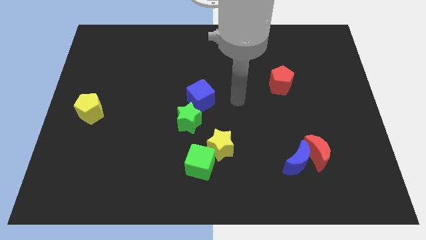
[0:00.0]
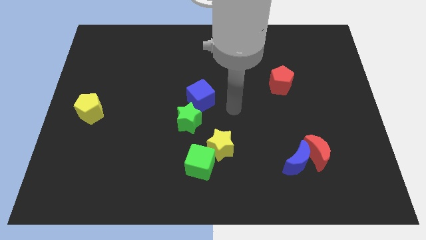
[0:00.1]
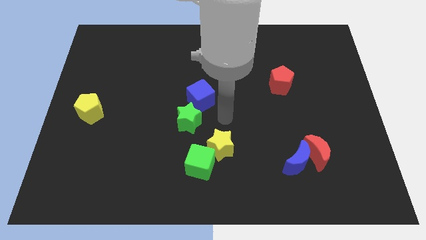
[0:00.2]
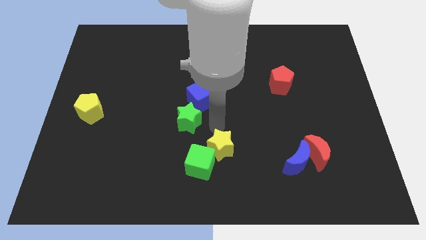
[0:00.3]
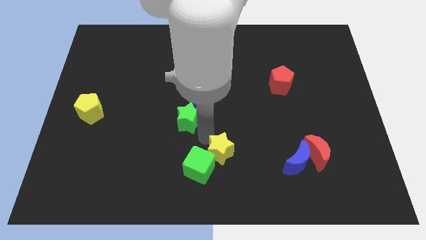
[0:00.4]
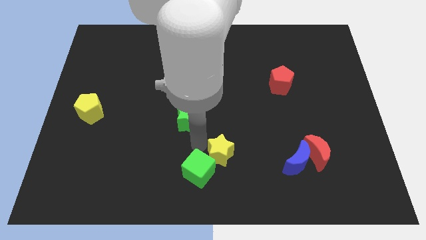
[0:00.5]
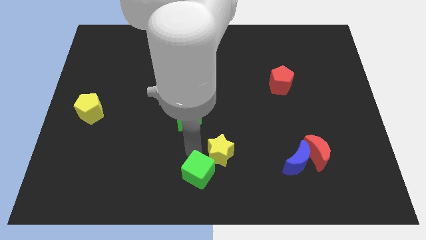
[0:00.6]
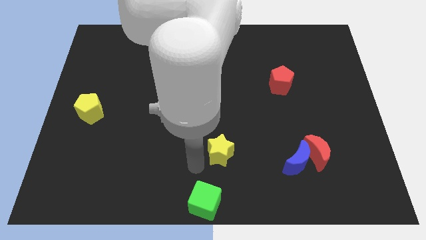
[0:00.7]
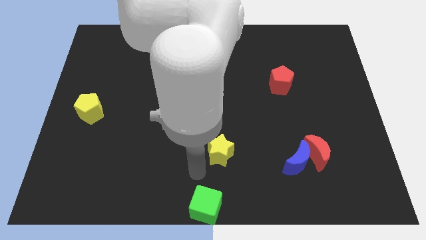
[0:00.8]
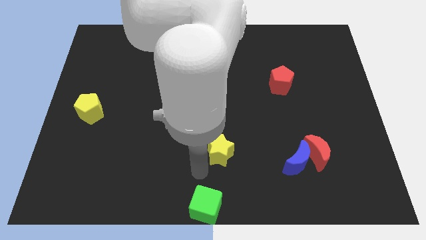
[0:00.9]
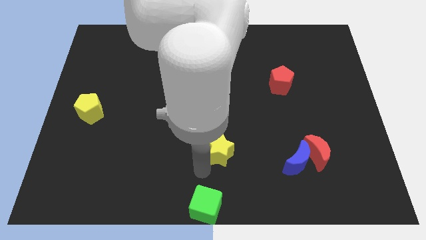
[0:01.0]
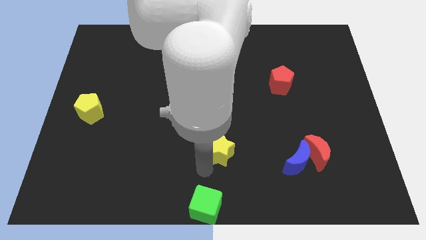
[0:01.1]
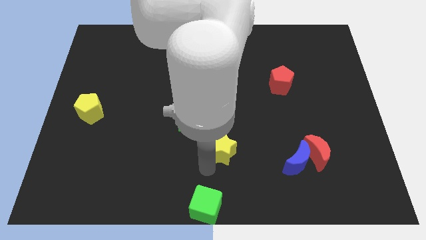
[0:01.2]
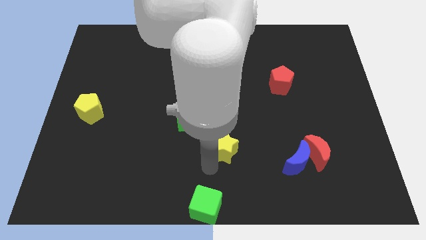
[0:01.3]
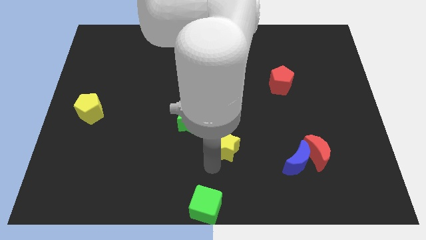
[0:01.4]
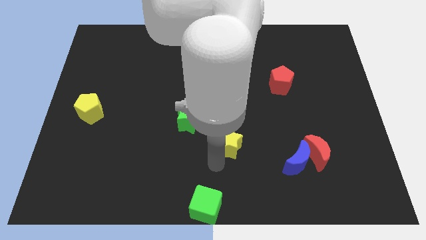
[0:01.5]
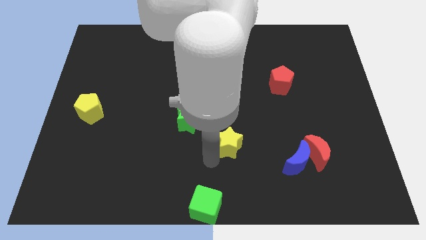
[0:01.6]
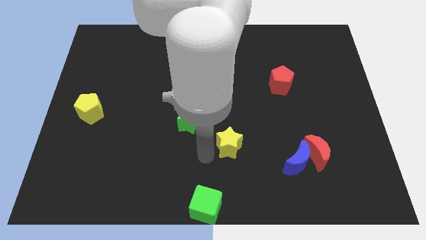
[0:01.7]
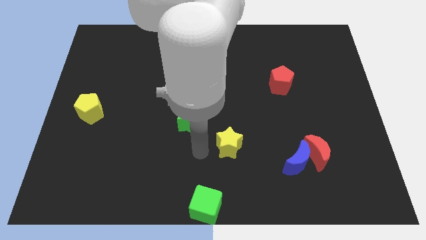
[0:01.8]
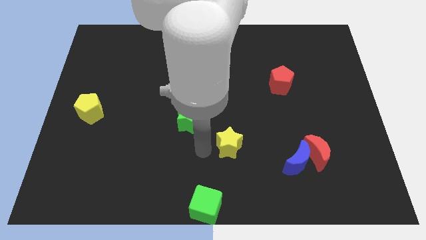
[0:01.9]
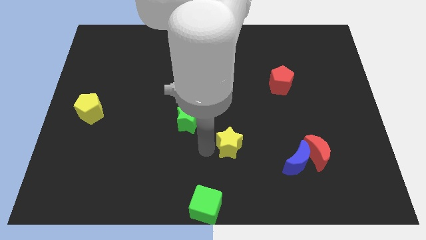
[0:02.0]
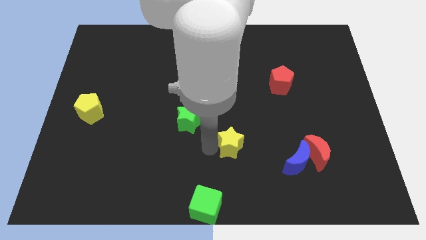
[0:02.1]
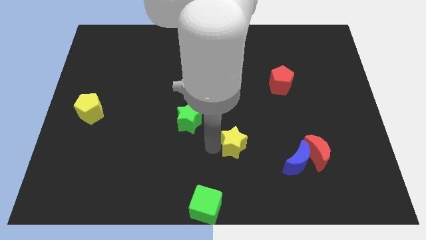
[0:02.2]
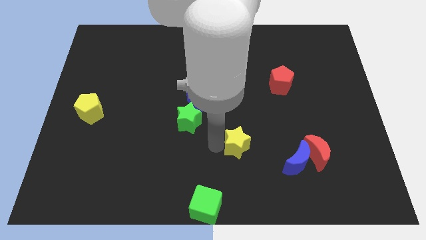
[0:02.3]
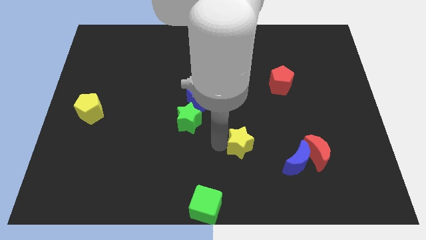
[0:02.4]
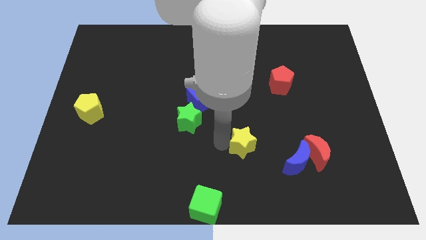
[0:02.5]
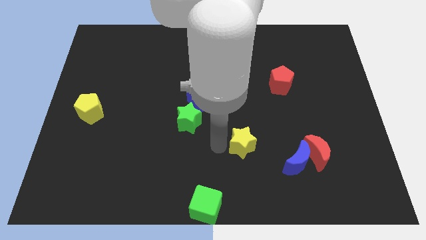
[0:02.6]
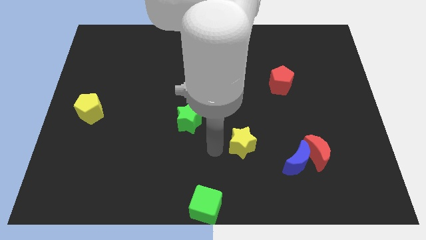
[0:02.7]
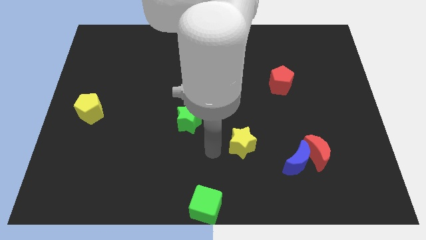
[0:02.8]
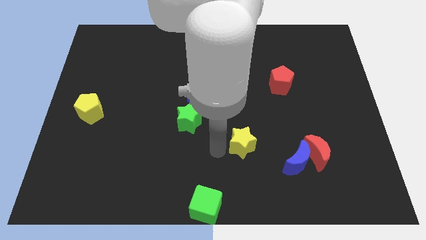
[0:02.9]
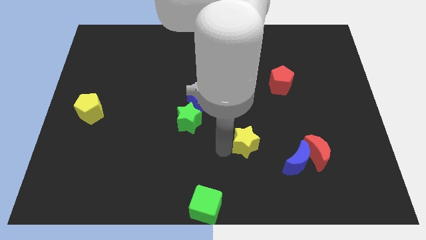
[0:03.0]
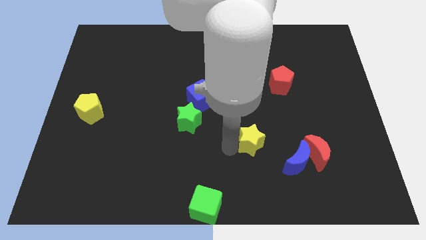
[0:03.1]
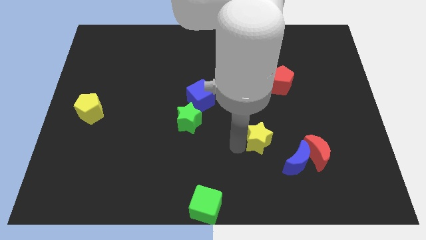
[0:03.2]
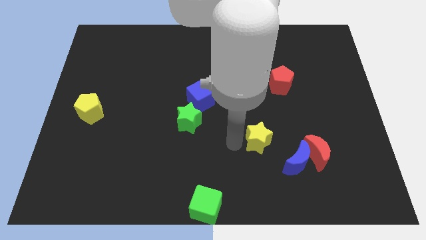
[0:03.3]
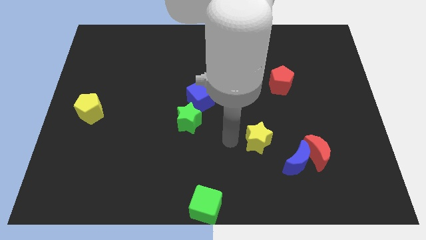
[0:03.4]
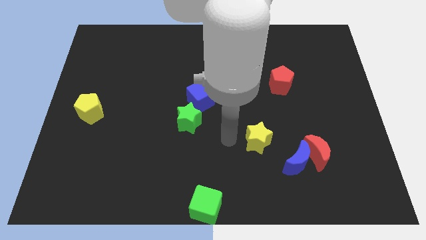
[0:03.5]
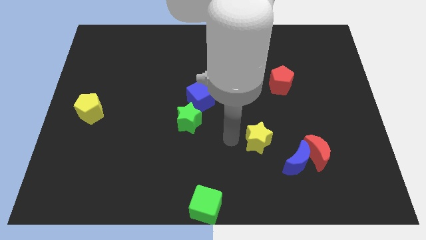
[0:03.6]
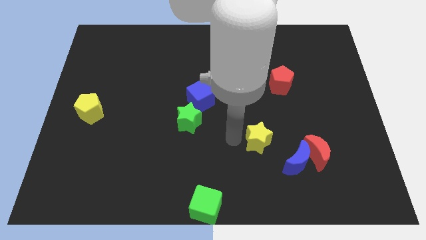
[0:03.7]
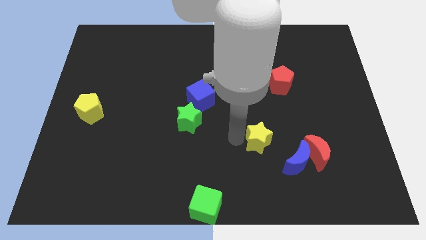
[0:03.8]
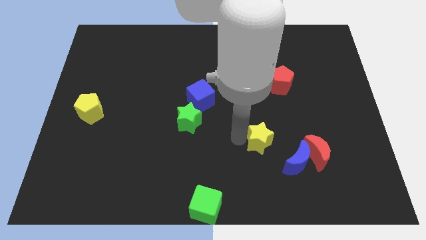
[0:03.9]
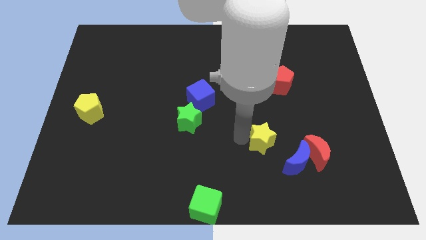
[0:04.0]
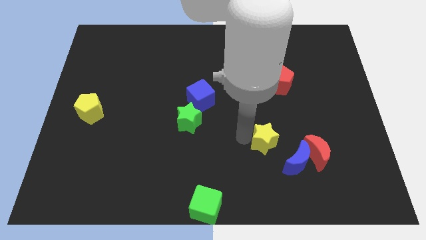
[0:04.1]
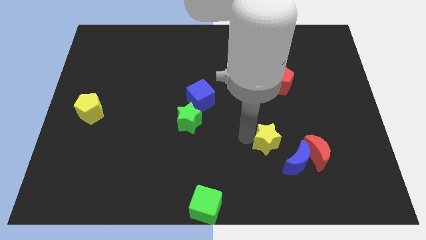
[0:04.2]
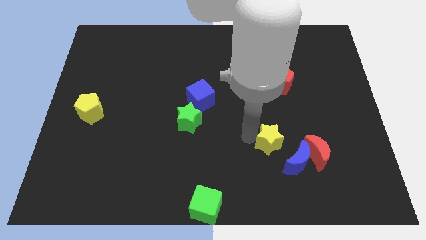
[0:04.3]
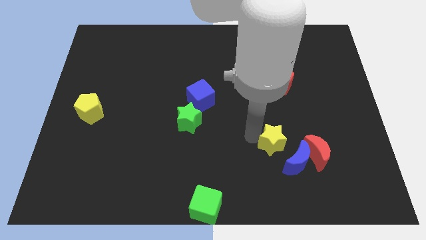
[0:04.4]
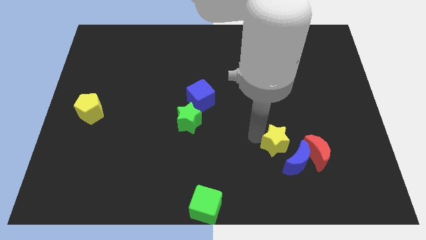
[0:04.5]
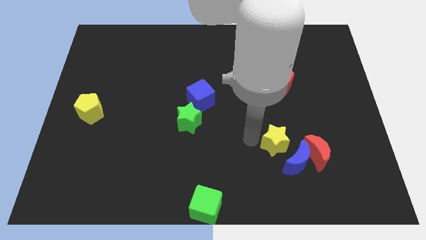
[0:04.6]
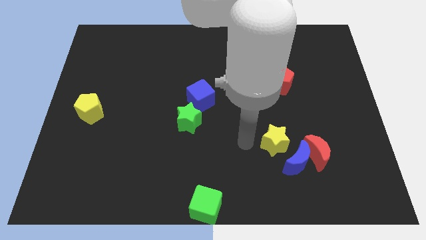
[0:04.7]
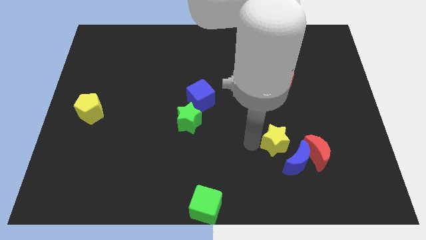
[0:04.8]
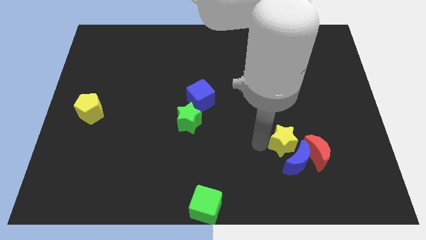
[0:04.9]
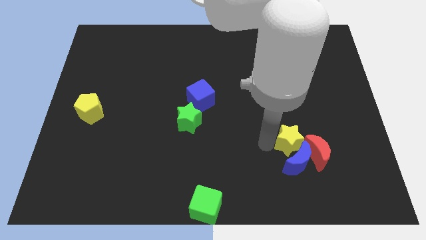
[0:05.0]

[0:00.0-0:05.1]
push the yellow star close to the red moon

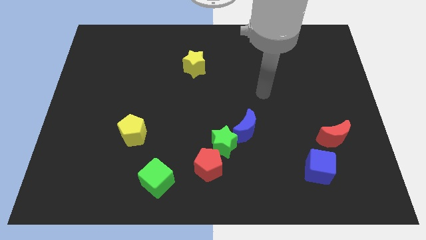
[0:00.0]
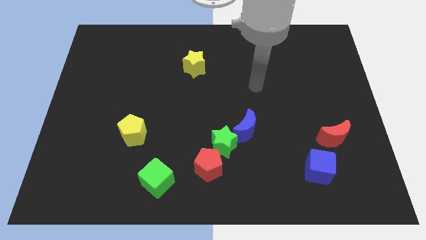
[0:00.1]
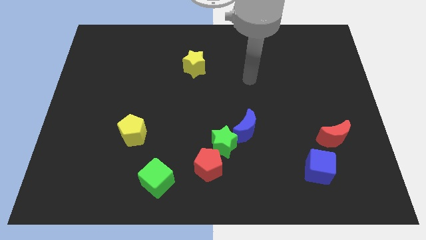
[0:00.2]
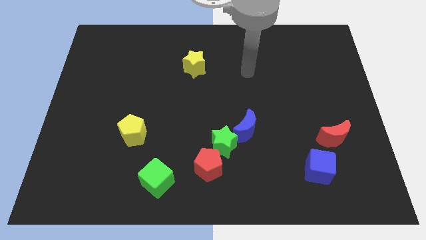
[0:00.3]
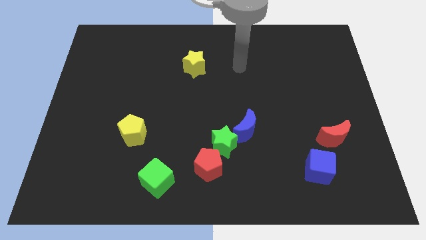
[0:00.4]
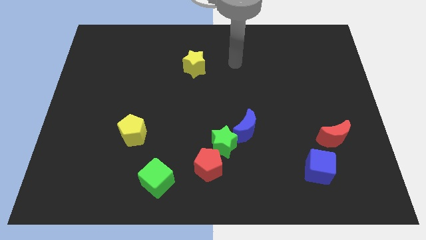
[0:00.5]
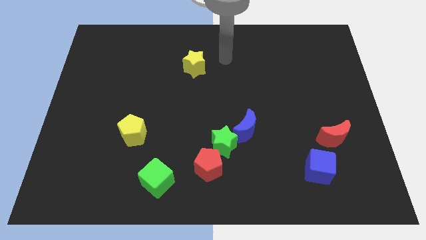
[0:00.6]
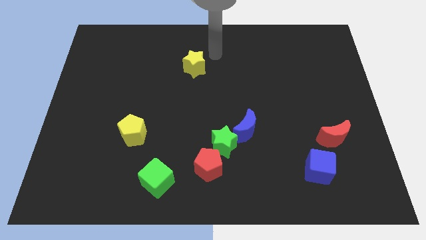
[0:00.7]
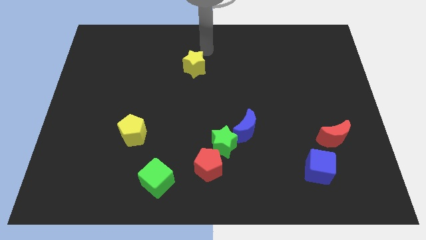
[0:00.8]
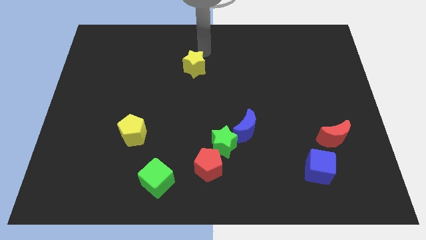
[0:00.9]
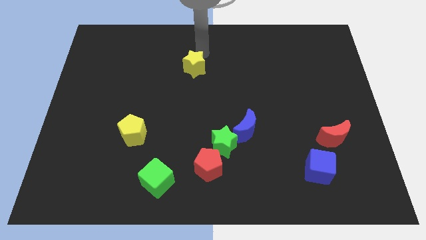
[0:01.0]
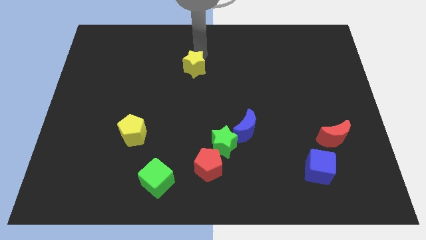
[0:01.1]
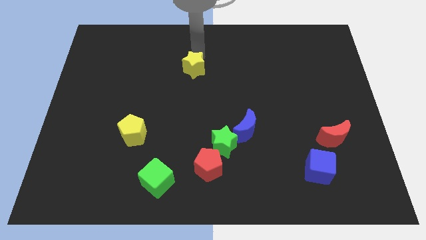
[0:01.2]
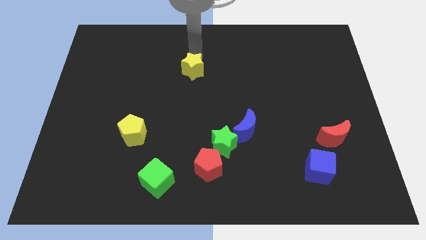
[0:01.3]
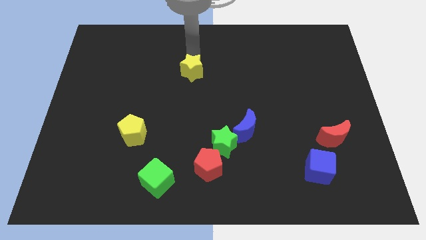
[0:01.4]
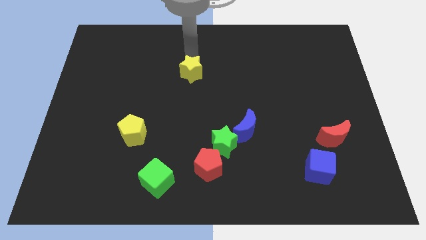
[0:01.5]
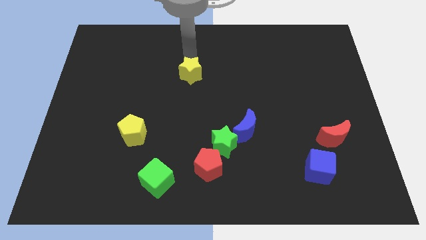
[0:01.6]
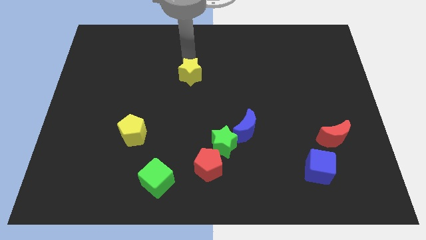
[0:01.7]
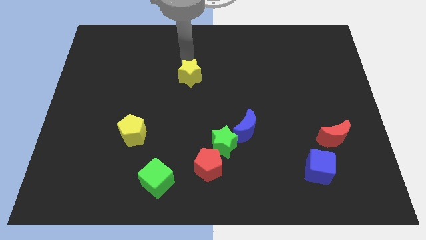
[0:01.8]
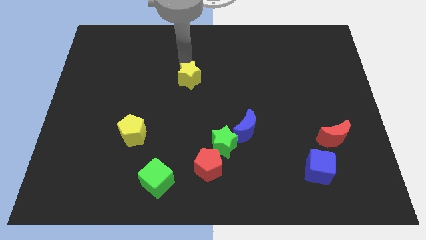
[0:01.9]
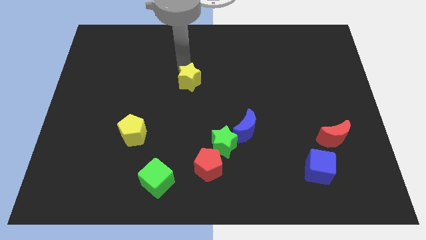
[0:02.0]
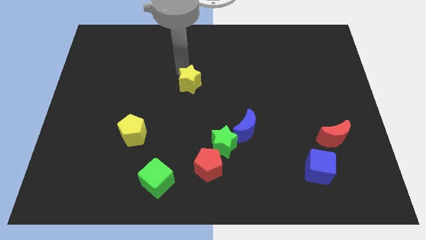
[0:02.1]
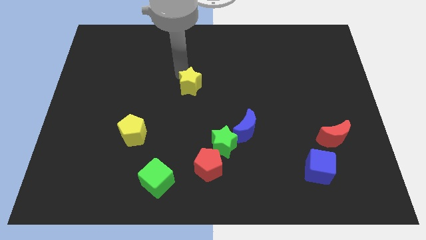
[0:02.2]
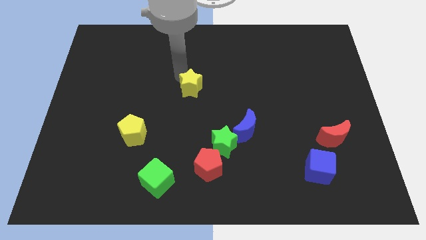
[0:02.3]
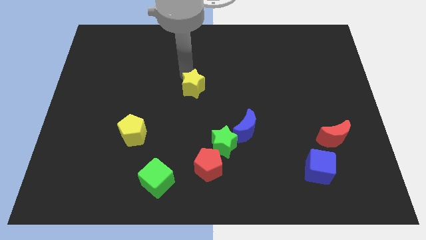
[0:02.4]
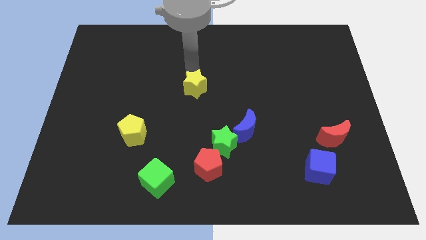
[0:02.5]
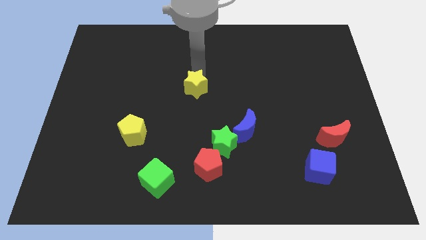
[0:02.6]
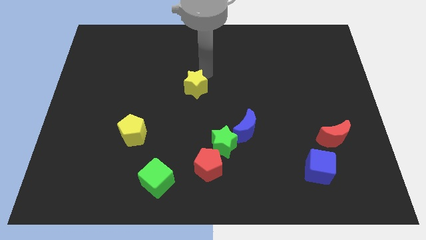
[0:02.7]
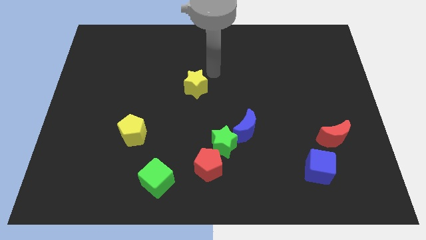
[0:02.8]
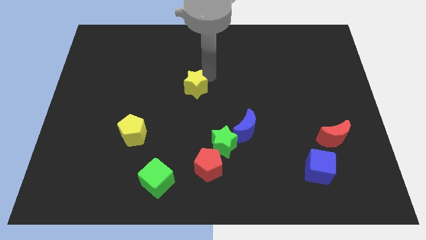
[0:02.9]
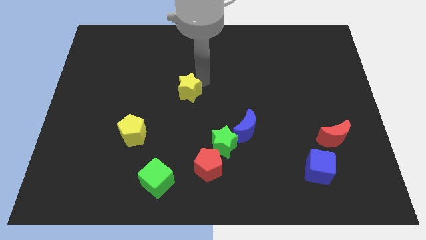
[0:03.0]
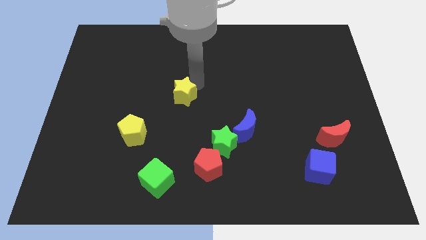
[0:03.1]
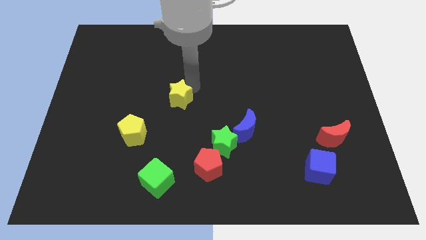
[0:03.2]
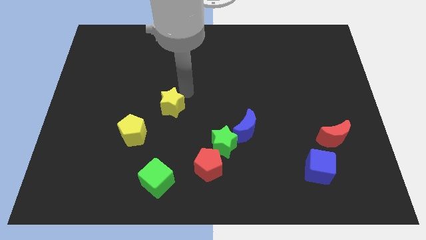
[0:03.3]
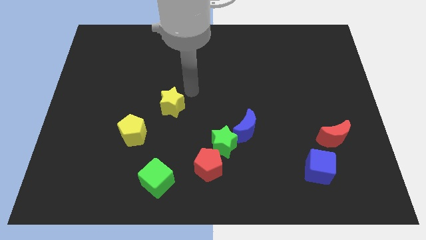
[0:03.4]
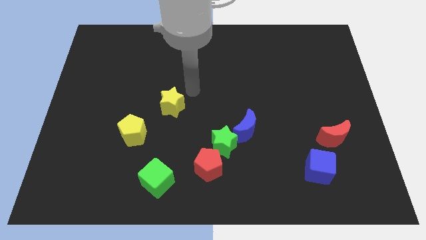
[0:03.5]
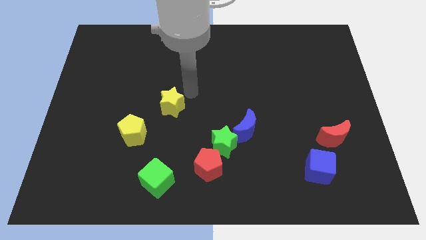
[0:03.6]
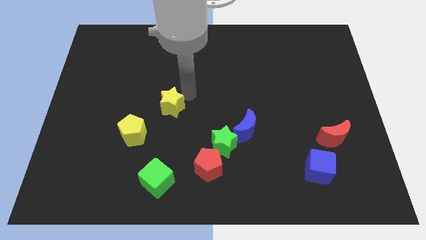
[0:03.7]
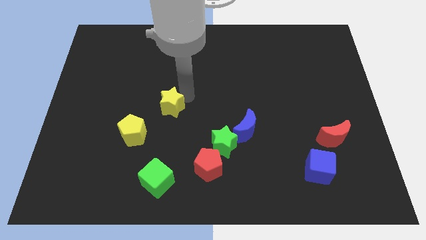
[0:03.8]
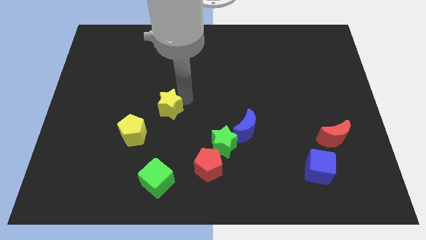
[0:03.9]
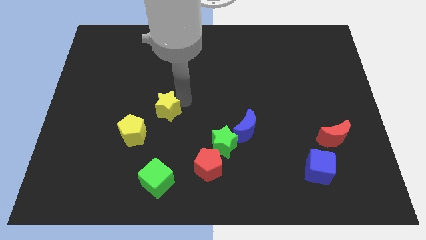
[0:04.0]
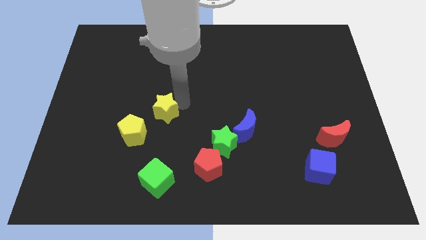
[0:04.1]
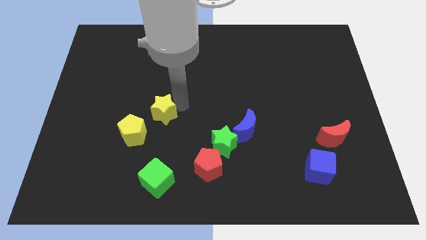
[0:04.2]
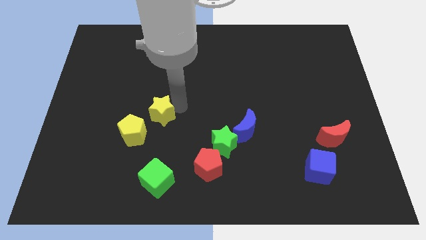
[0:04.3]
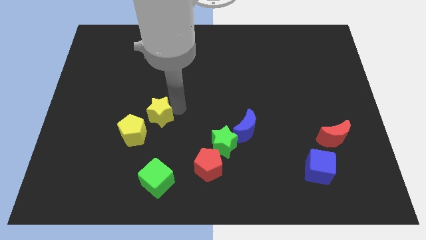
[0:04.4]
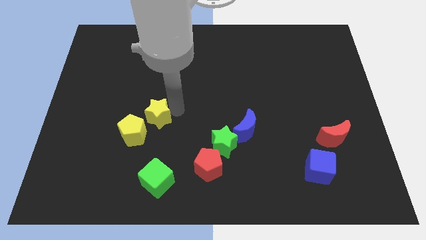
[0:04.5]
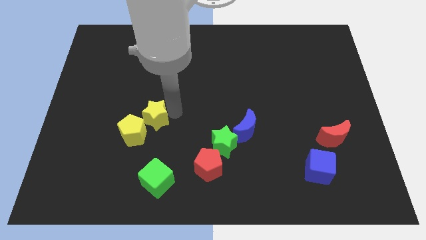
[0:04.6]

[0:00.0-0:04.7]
move the yellow star towards the yellow pentagon
